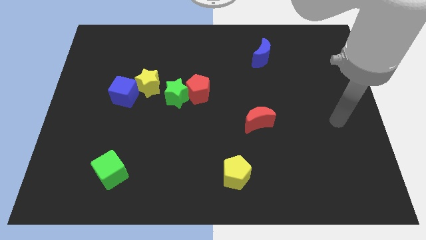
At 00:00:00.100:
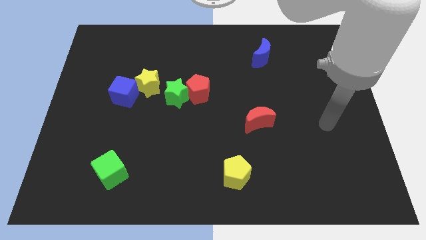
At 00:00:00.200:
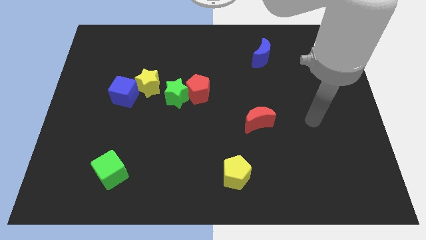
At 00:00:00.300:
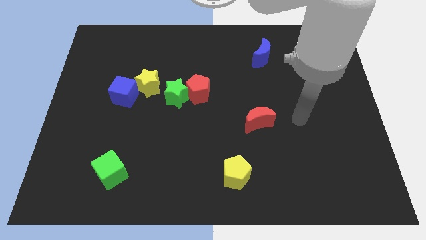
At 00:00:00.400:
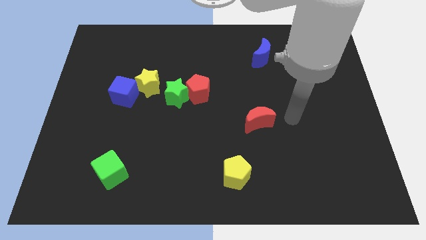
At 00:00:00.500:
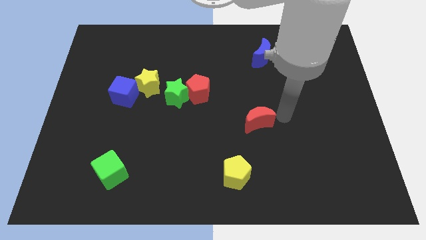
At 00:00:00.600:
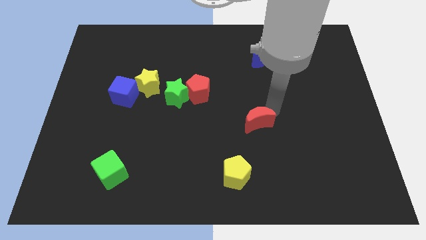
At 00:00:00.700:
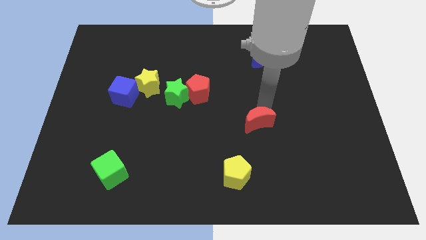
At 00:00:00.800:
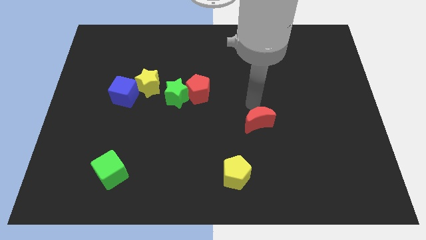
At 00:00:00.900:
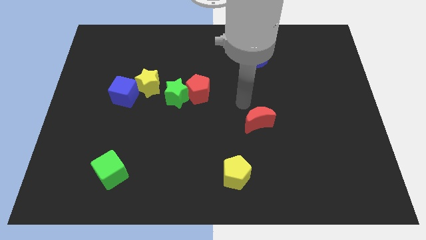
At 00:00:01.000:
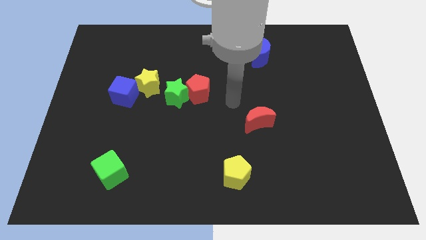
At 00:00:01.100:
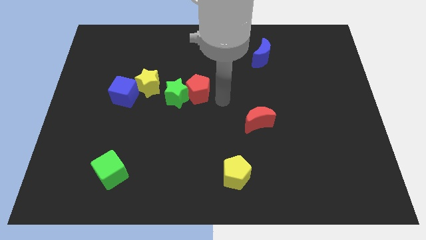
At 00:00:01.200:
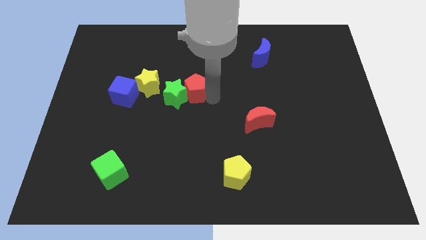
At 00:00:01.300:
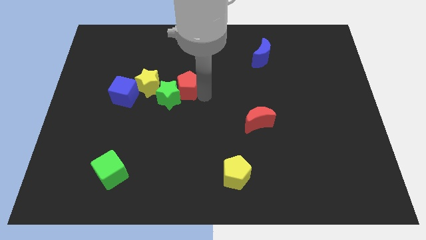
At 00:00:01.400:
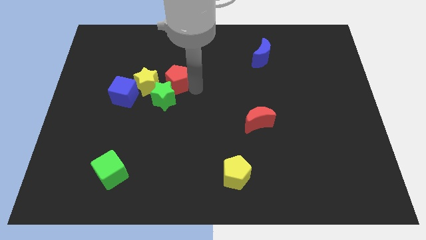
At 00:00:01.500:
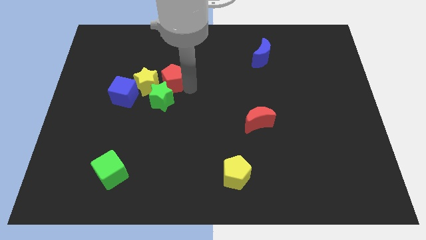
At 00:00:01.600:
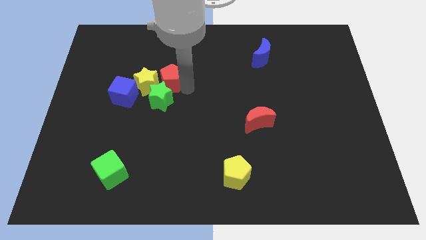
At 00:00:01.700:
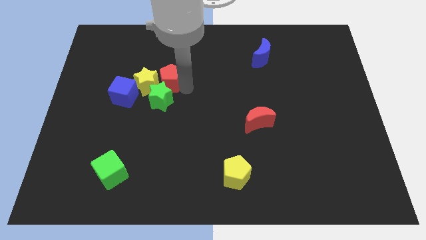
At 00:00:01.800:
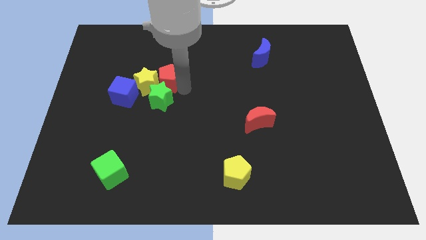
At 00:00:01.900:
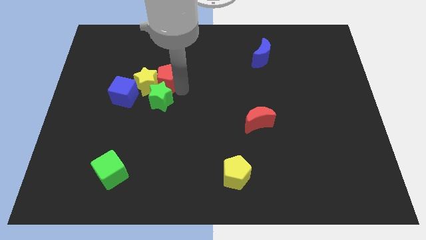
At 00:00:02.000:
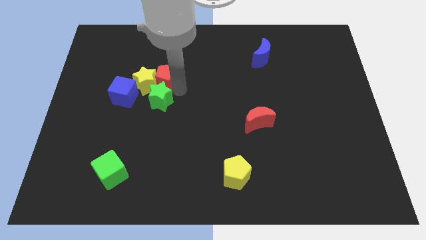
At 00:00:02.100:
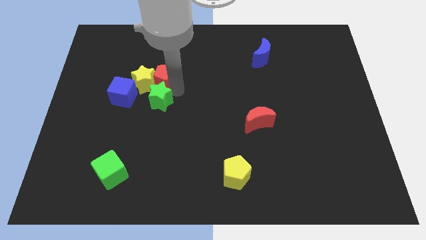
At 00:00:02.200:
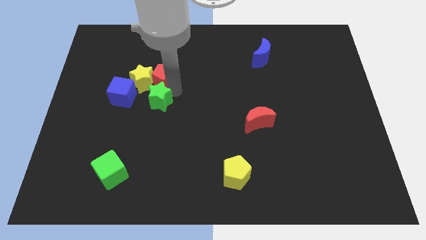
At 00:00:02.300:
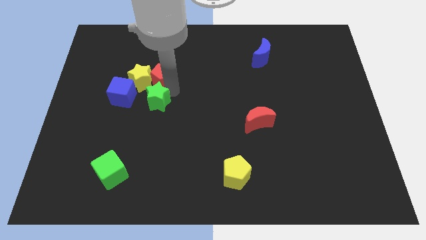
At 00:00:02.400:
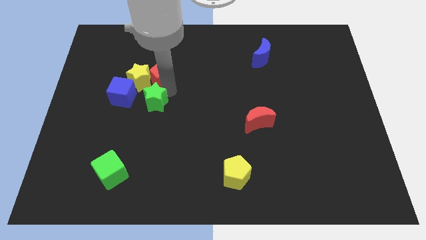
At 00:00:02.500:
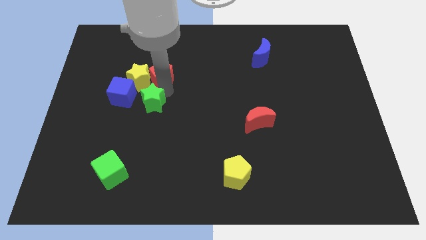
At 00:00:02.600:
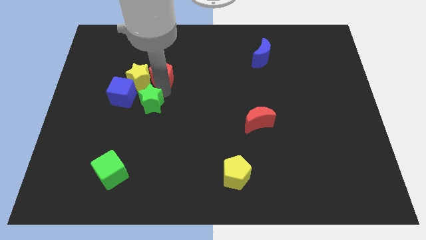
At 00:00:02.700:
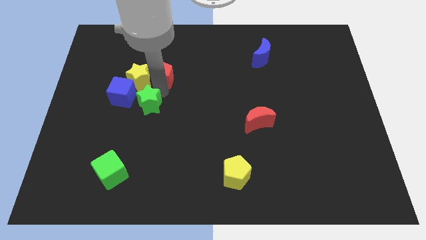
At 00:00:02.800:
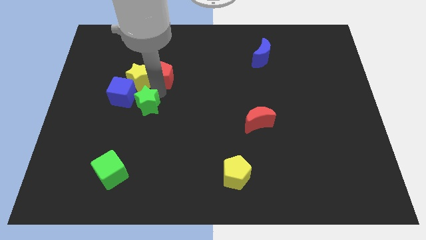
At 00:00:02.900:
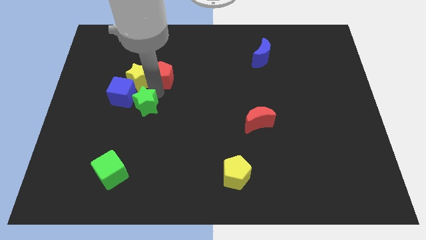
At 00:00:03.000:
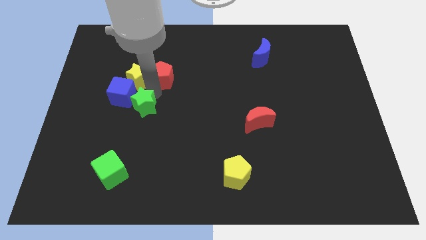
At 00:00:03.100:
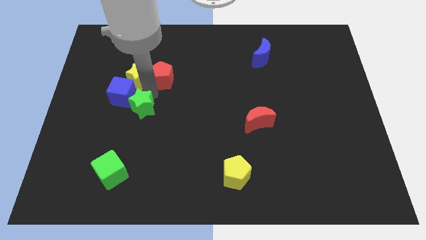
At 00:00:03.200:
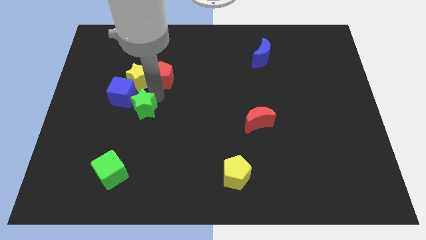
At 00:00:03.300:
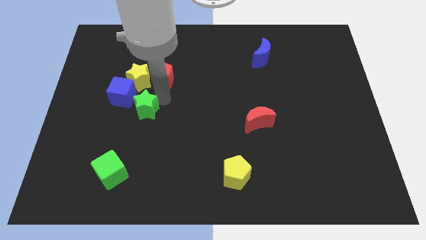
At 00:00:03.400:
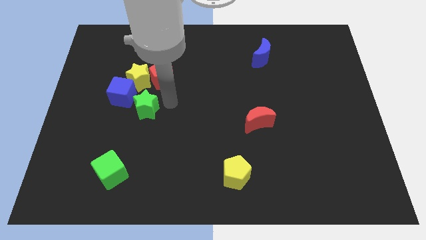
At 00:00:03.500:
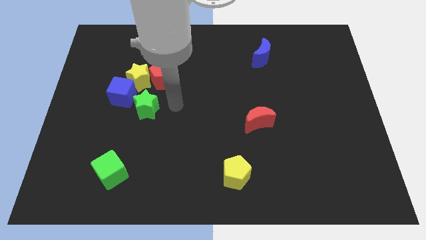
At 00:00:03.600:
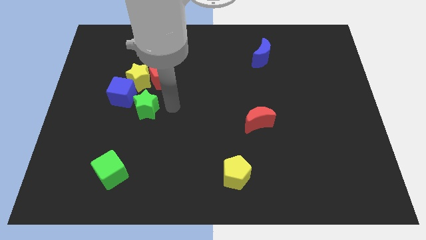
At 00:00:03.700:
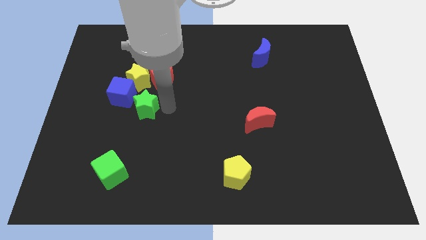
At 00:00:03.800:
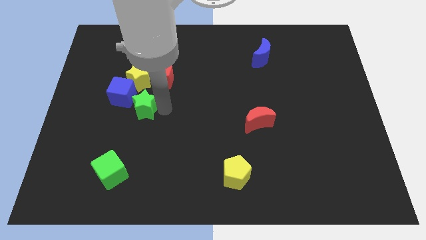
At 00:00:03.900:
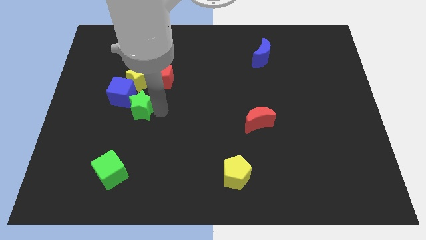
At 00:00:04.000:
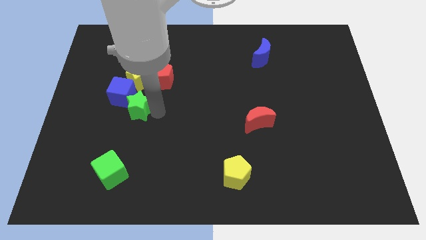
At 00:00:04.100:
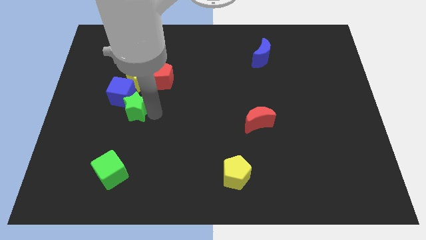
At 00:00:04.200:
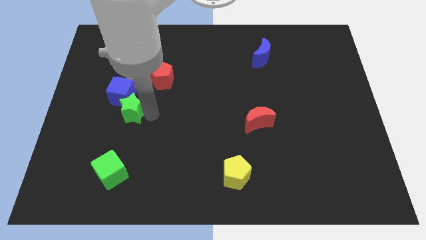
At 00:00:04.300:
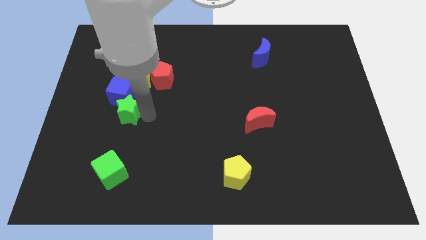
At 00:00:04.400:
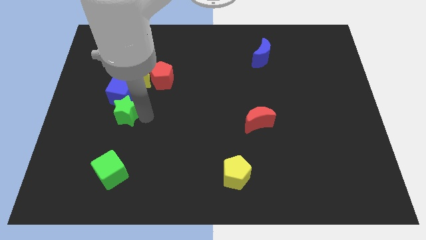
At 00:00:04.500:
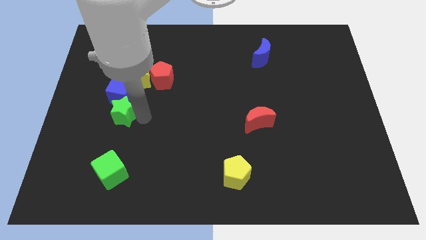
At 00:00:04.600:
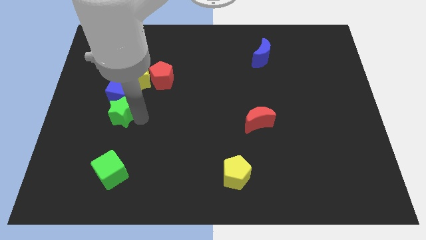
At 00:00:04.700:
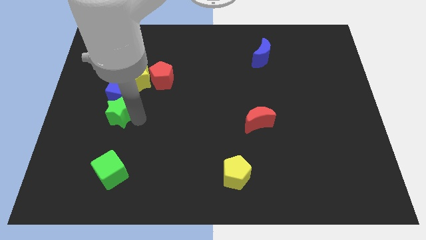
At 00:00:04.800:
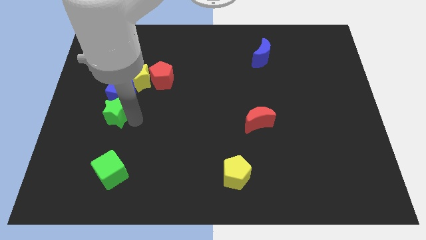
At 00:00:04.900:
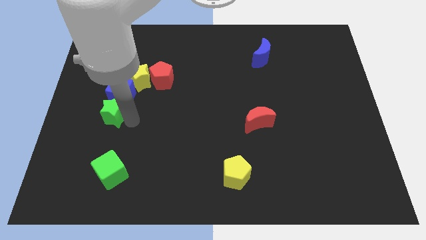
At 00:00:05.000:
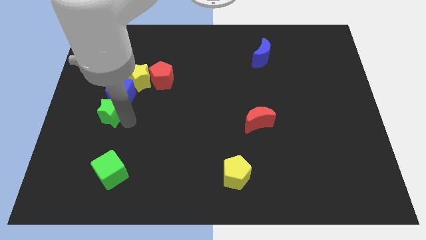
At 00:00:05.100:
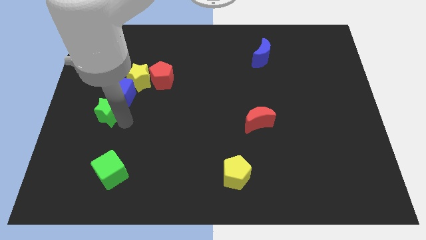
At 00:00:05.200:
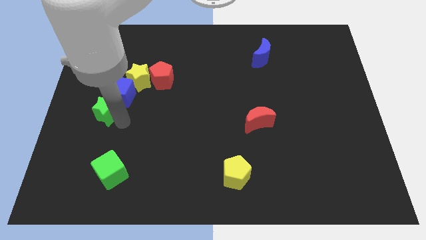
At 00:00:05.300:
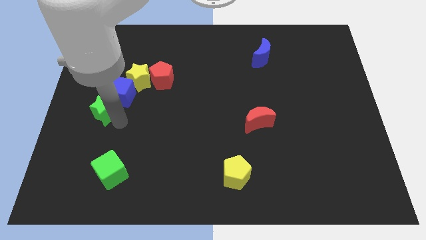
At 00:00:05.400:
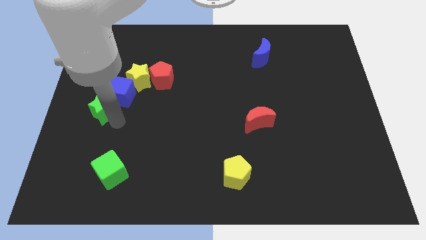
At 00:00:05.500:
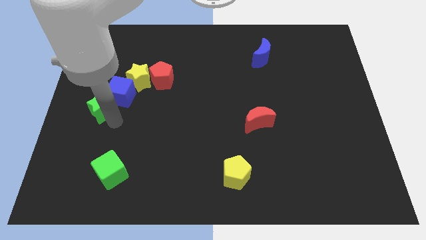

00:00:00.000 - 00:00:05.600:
put the green star to the left side of the board

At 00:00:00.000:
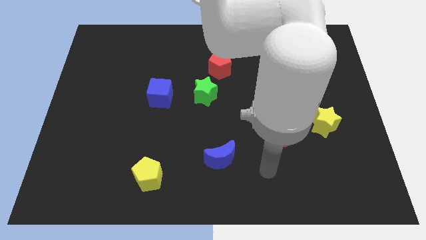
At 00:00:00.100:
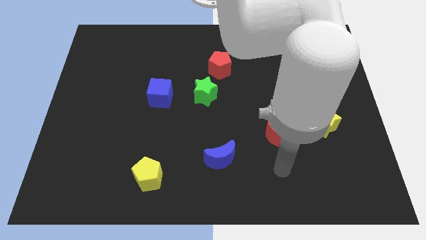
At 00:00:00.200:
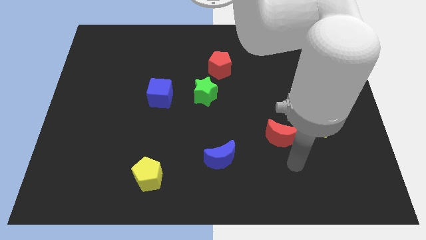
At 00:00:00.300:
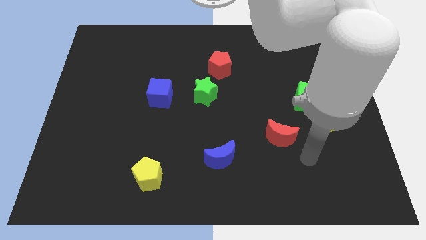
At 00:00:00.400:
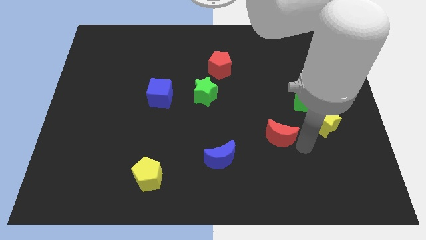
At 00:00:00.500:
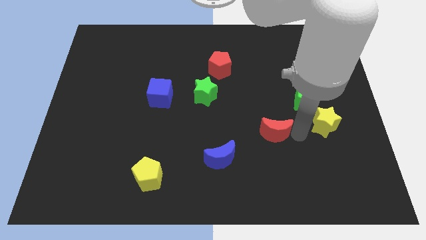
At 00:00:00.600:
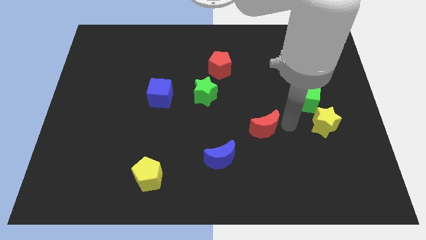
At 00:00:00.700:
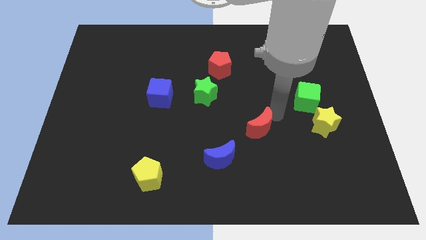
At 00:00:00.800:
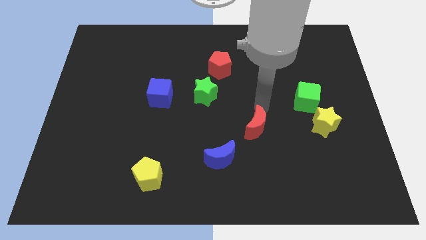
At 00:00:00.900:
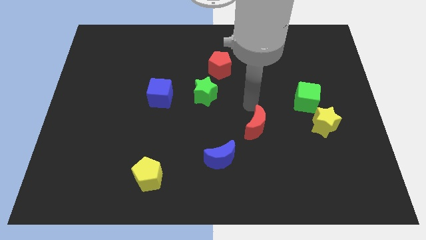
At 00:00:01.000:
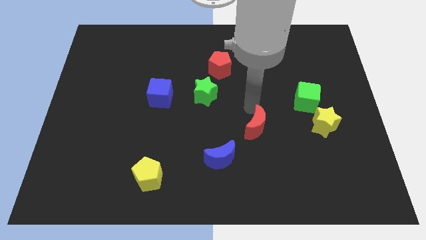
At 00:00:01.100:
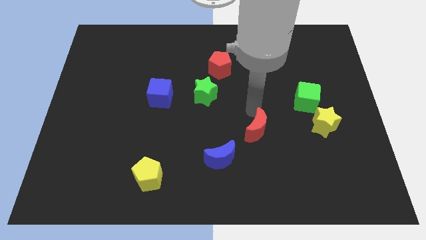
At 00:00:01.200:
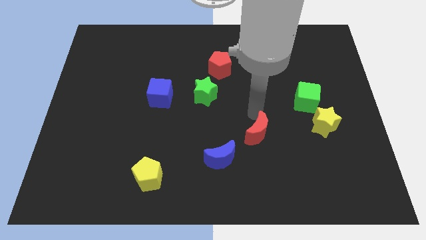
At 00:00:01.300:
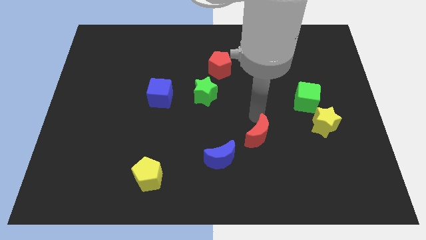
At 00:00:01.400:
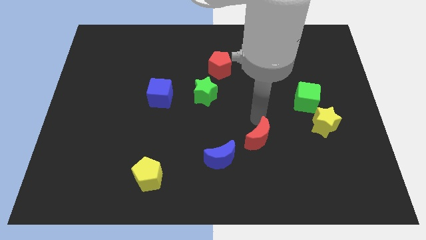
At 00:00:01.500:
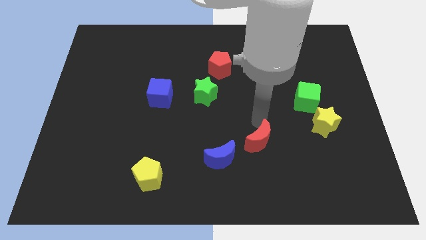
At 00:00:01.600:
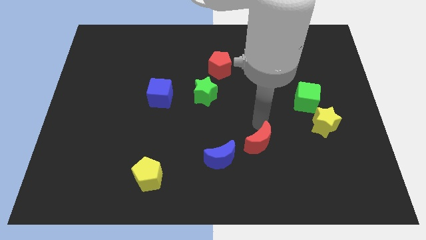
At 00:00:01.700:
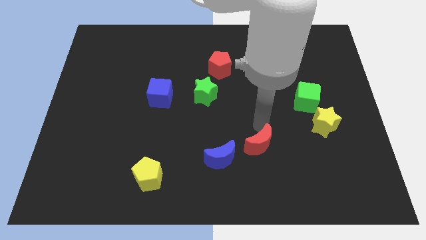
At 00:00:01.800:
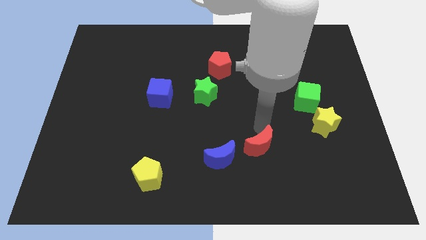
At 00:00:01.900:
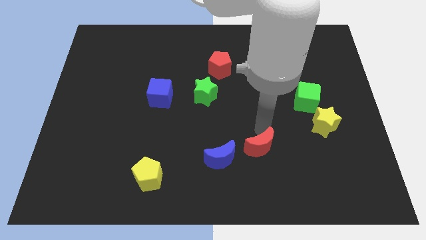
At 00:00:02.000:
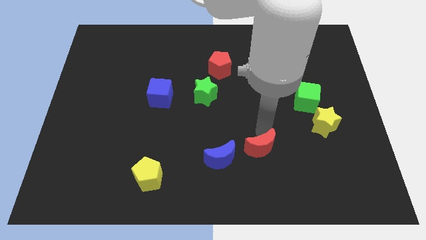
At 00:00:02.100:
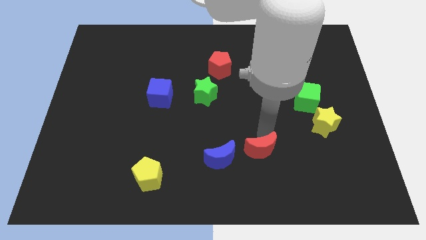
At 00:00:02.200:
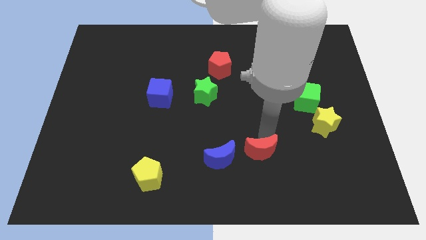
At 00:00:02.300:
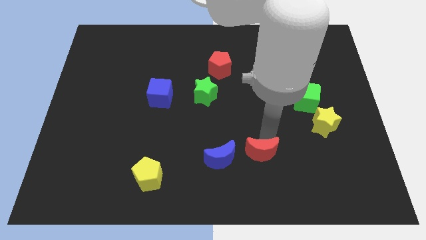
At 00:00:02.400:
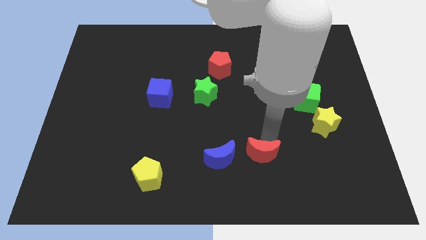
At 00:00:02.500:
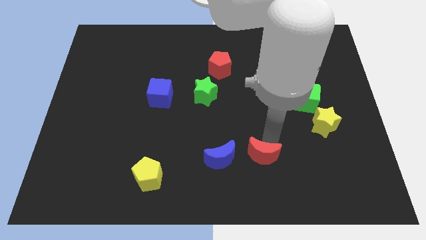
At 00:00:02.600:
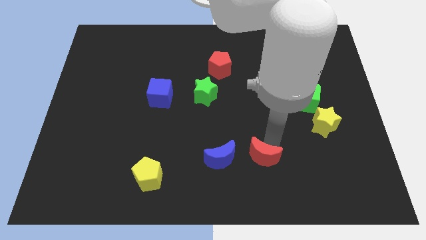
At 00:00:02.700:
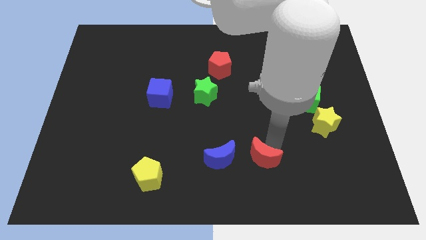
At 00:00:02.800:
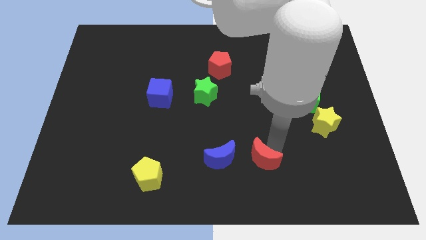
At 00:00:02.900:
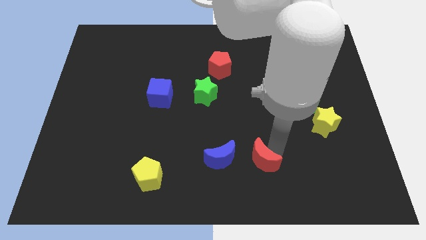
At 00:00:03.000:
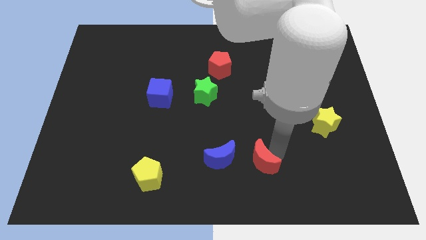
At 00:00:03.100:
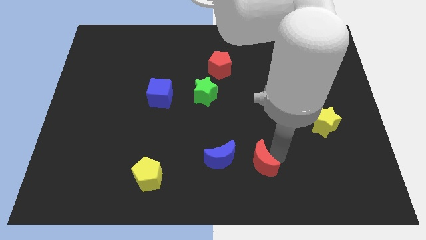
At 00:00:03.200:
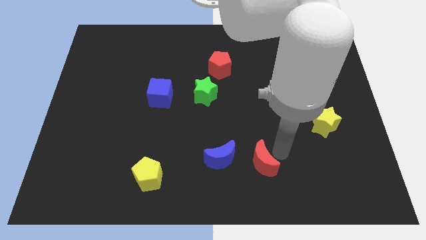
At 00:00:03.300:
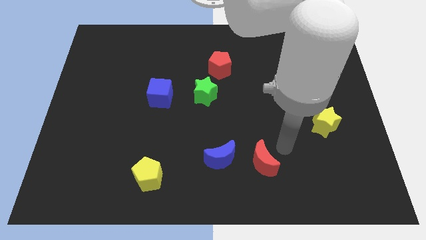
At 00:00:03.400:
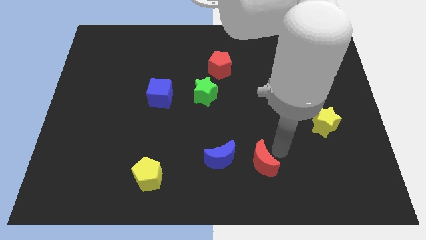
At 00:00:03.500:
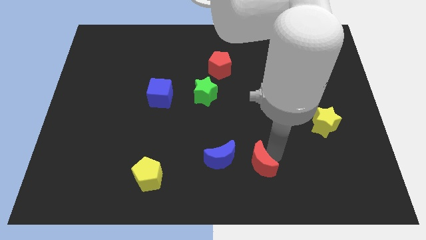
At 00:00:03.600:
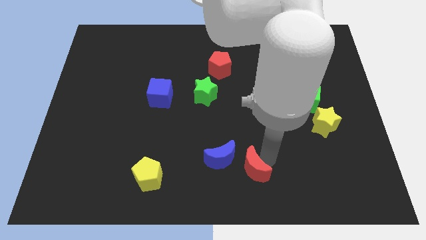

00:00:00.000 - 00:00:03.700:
put the red moon to the bottom side
